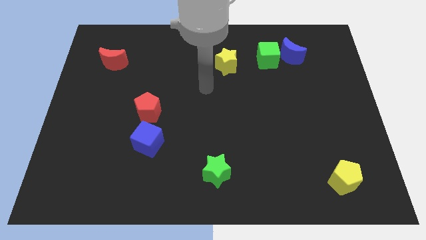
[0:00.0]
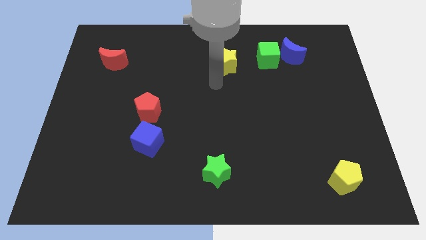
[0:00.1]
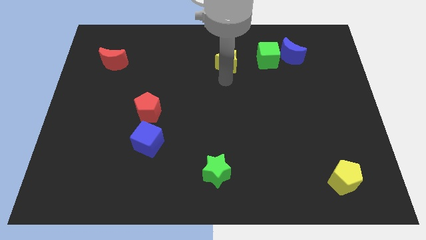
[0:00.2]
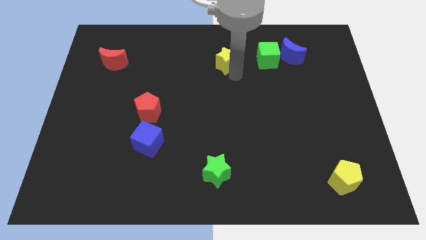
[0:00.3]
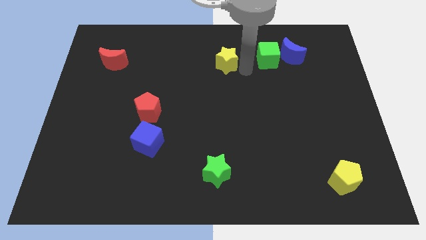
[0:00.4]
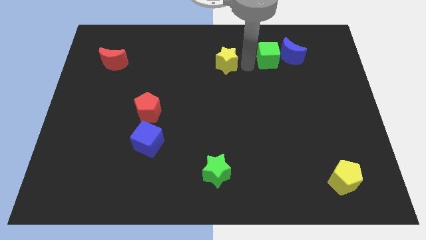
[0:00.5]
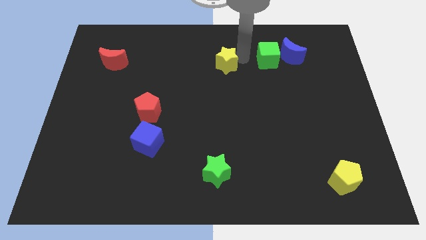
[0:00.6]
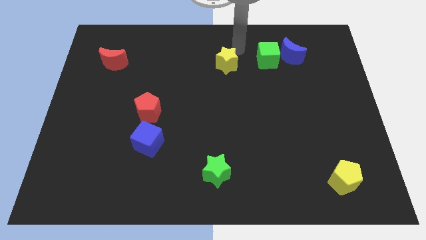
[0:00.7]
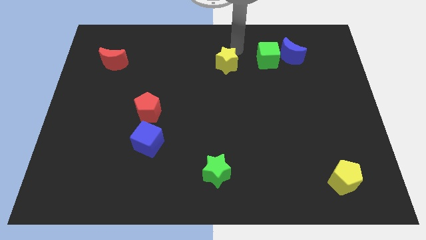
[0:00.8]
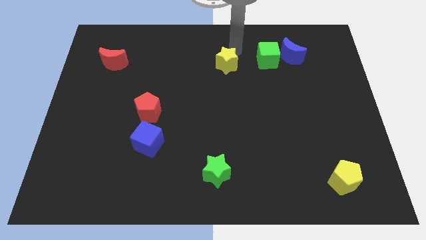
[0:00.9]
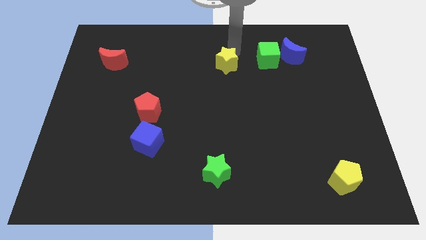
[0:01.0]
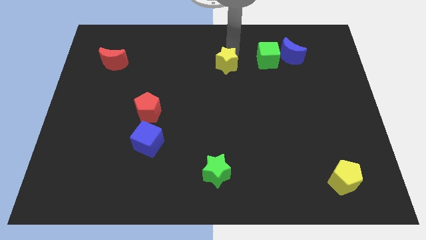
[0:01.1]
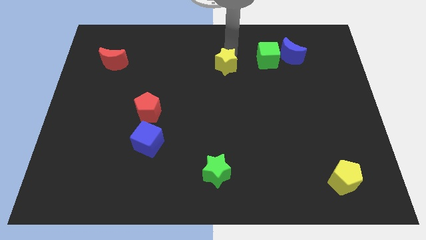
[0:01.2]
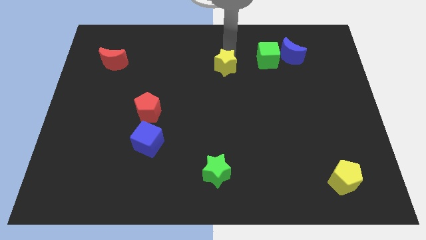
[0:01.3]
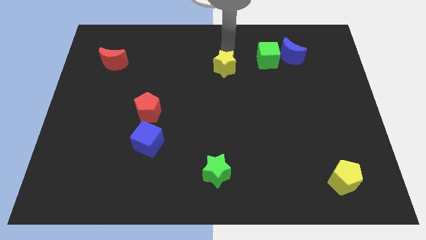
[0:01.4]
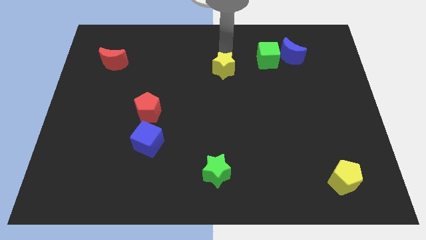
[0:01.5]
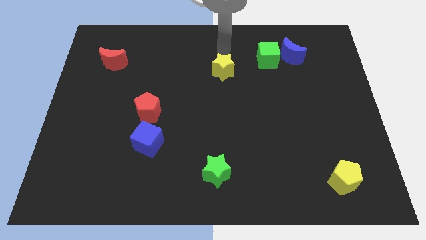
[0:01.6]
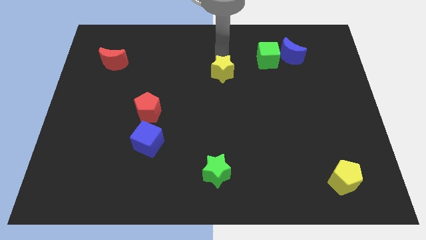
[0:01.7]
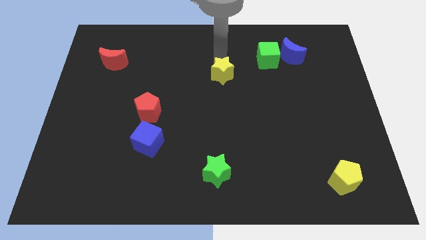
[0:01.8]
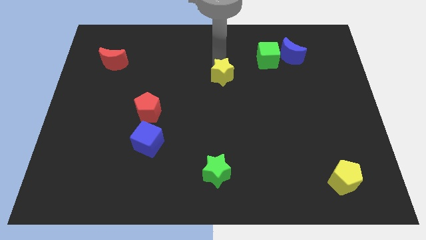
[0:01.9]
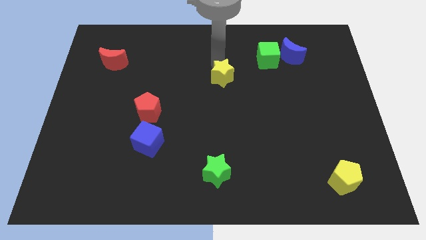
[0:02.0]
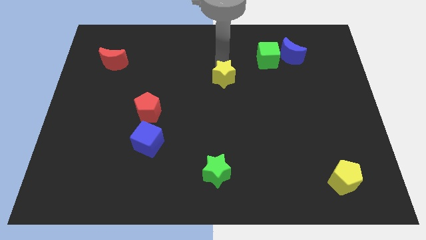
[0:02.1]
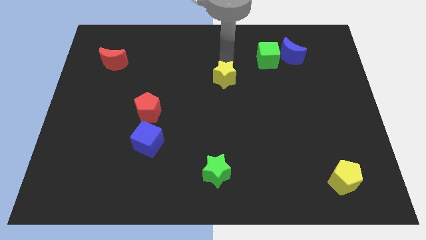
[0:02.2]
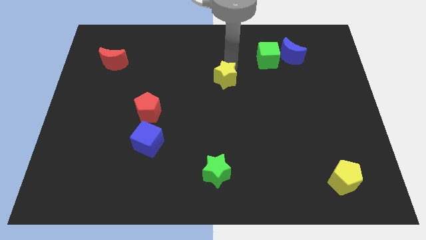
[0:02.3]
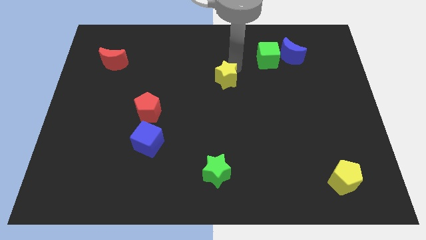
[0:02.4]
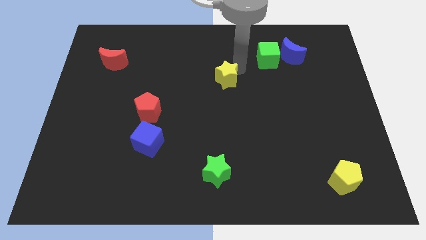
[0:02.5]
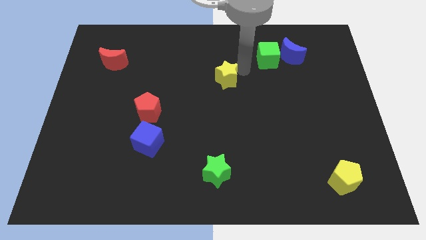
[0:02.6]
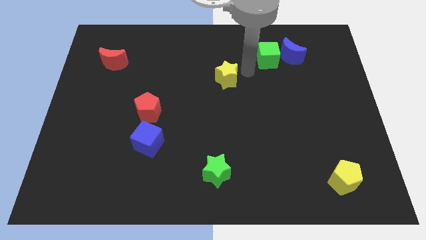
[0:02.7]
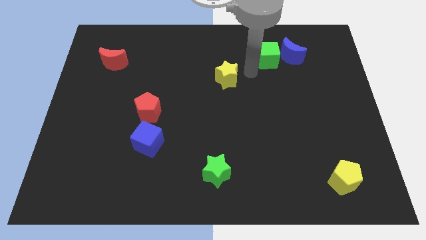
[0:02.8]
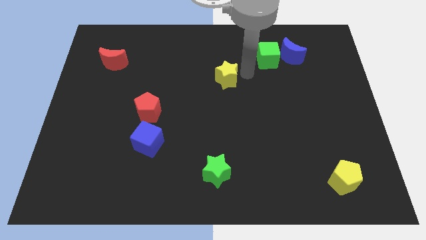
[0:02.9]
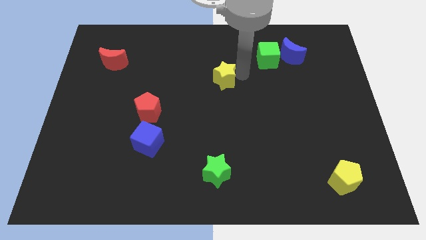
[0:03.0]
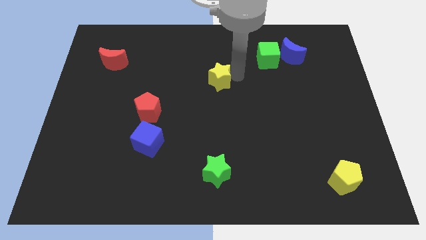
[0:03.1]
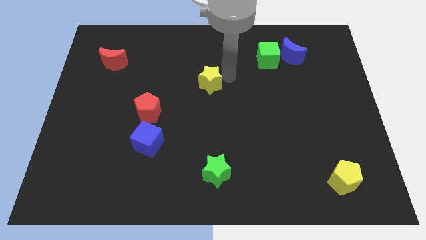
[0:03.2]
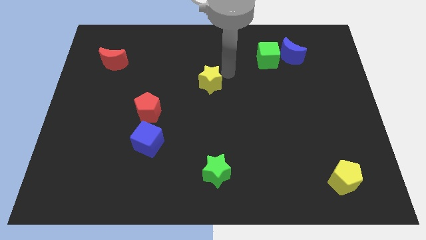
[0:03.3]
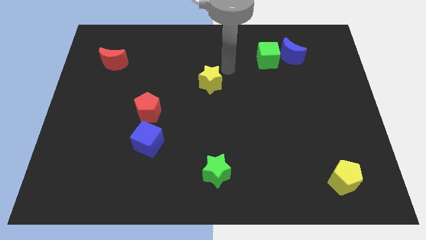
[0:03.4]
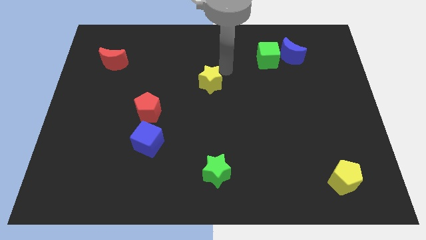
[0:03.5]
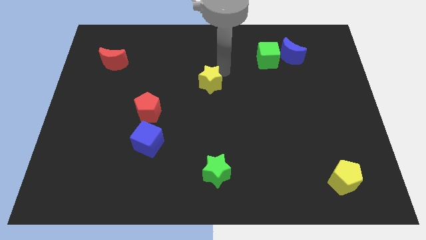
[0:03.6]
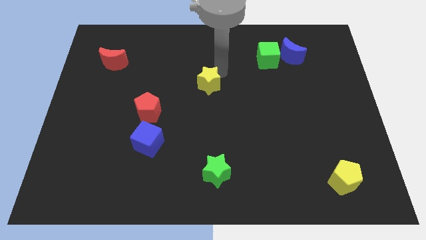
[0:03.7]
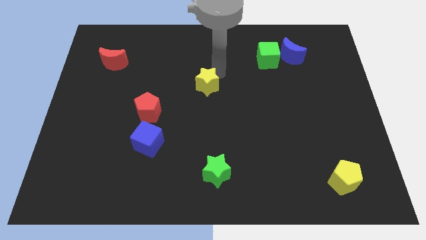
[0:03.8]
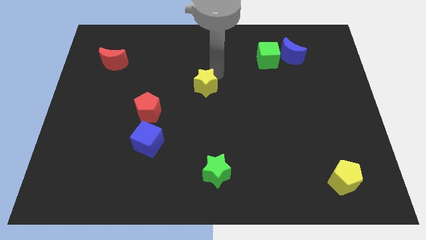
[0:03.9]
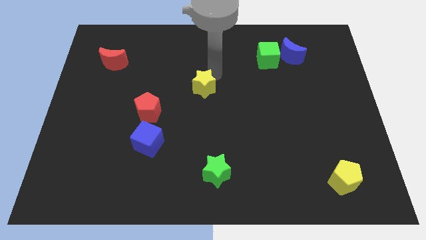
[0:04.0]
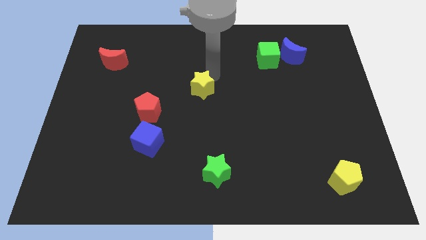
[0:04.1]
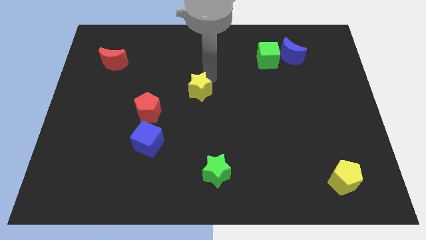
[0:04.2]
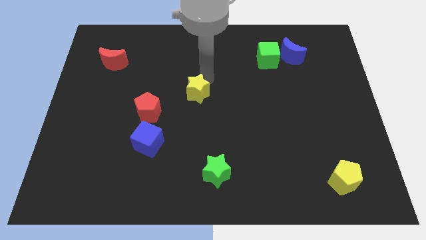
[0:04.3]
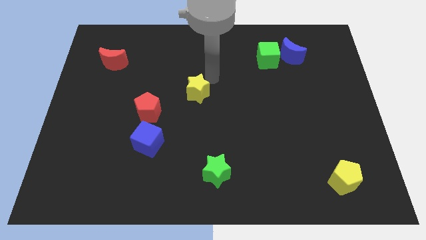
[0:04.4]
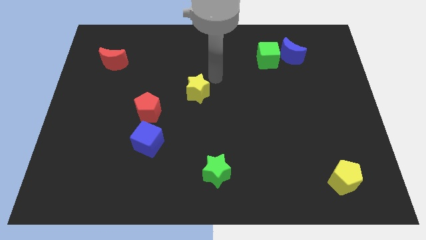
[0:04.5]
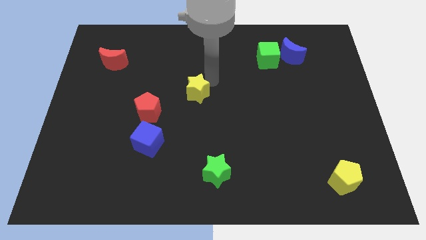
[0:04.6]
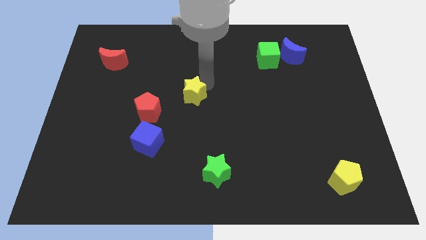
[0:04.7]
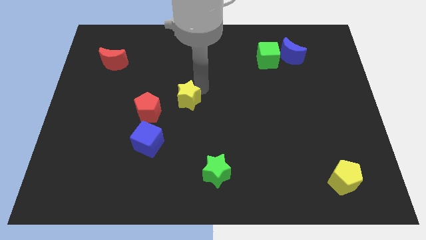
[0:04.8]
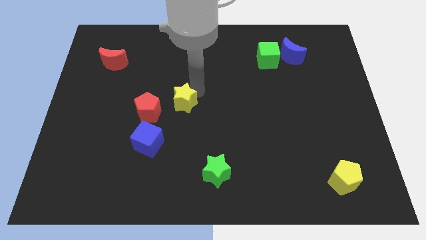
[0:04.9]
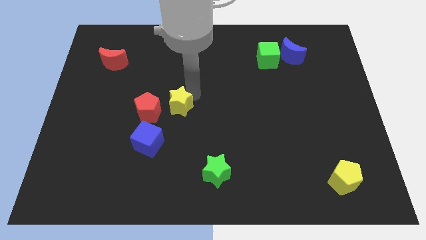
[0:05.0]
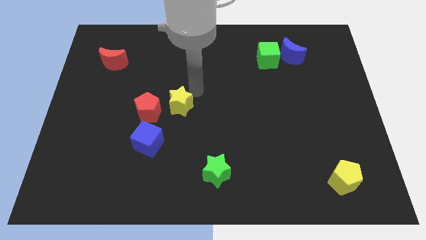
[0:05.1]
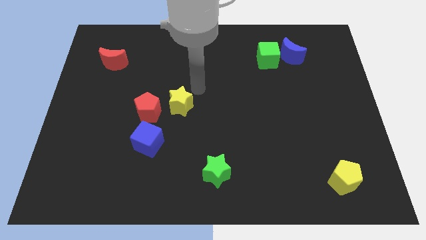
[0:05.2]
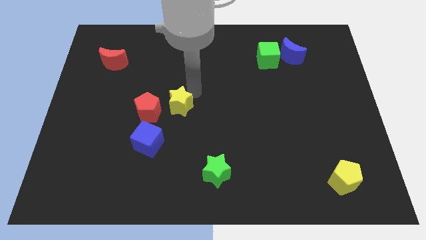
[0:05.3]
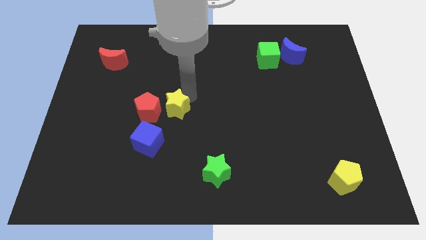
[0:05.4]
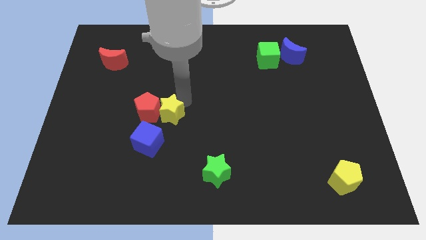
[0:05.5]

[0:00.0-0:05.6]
push the yellow star down and left diagonally

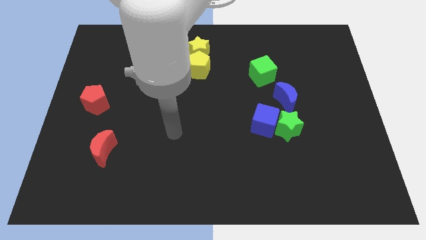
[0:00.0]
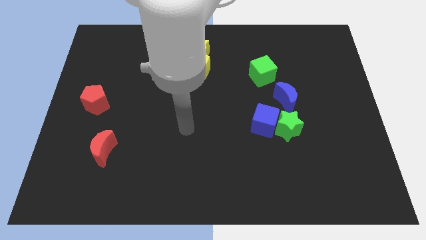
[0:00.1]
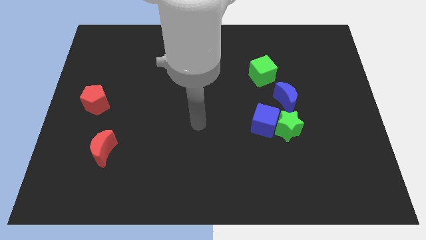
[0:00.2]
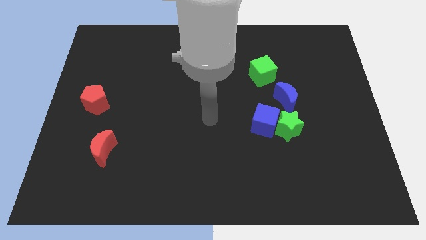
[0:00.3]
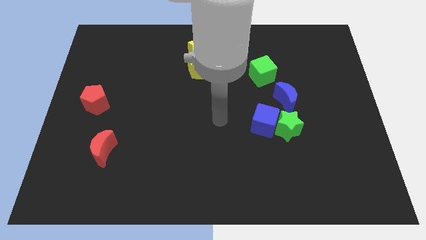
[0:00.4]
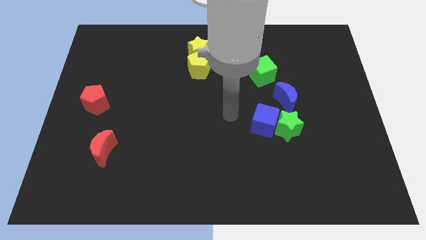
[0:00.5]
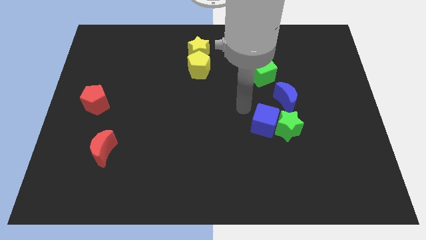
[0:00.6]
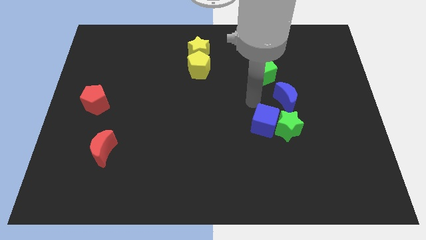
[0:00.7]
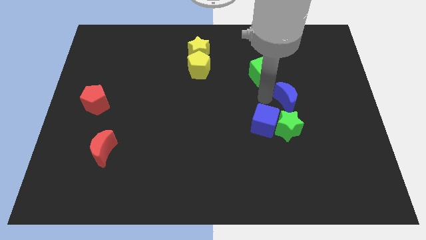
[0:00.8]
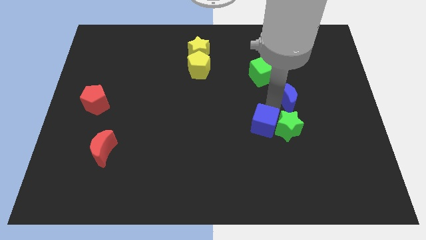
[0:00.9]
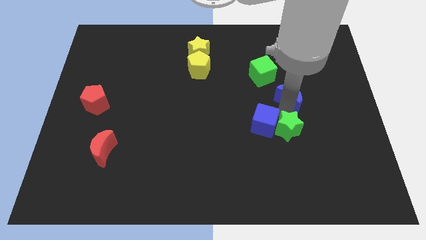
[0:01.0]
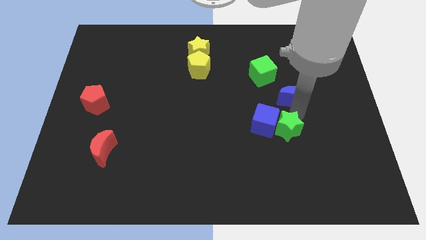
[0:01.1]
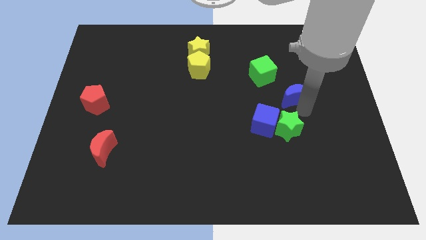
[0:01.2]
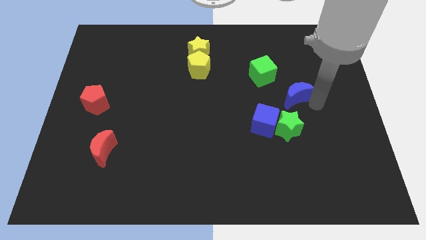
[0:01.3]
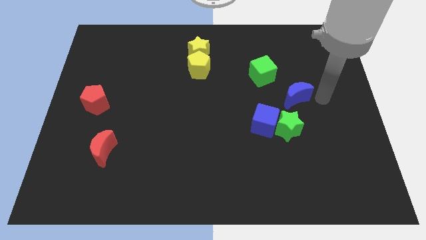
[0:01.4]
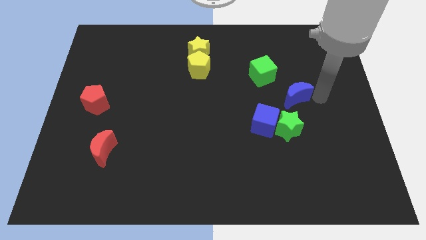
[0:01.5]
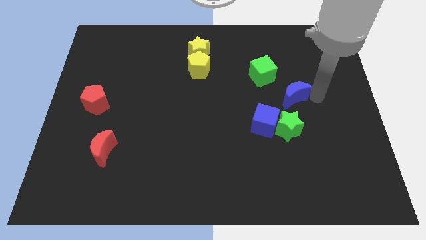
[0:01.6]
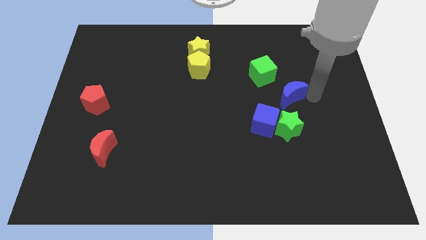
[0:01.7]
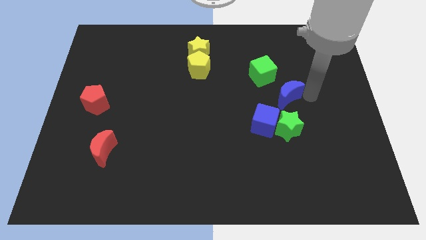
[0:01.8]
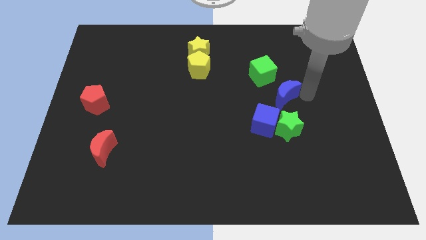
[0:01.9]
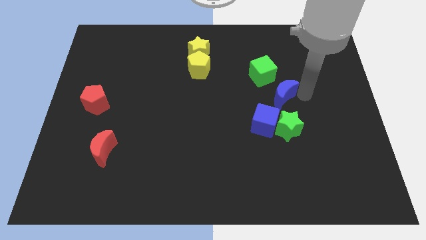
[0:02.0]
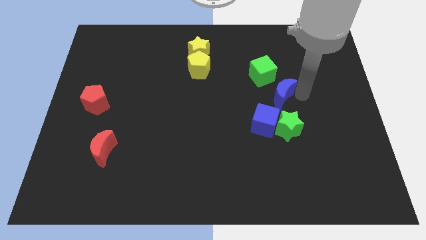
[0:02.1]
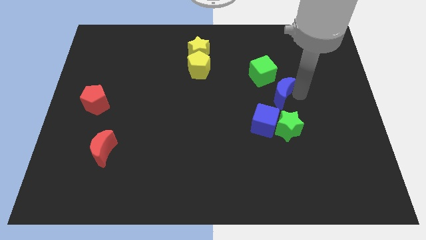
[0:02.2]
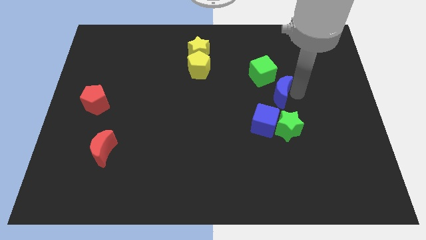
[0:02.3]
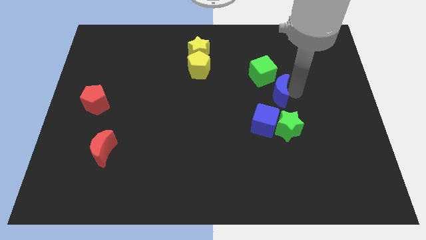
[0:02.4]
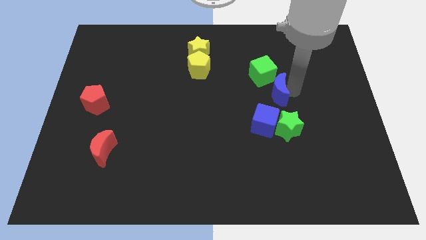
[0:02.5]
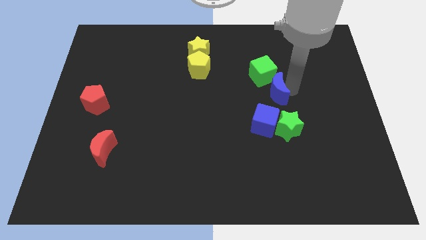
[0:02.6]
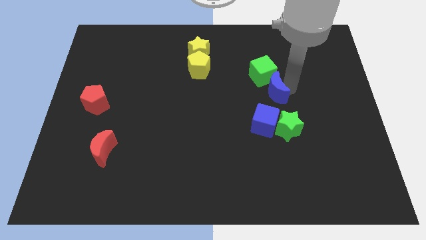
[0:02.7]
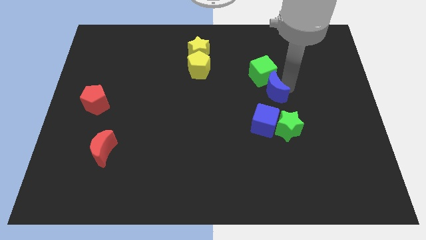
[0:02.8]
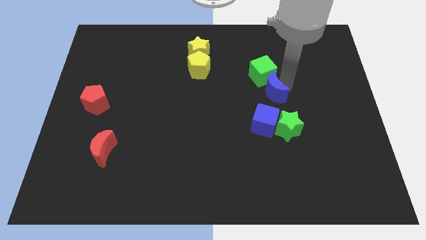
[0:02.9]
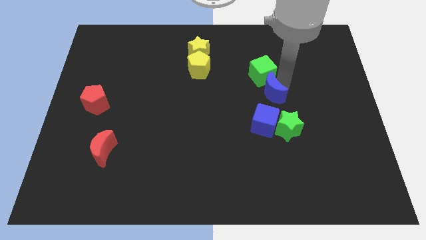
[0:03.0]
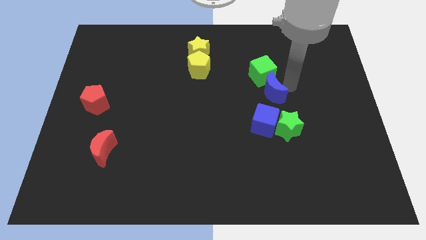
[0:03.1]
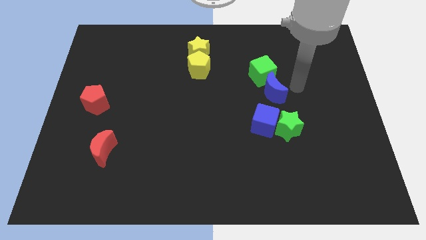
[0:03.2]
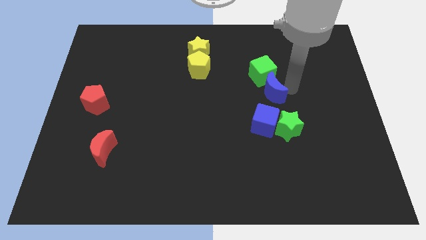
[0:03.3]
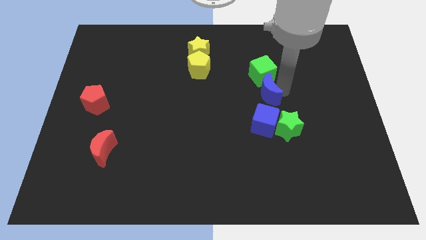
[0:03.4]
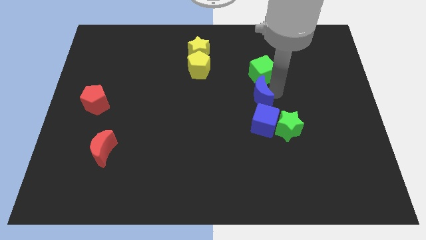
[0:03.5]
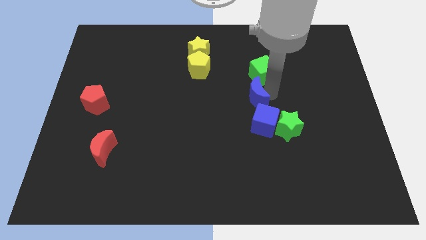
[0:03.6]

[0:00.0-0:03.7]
push the blue moon a little bit to the left
